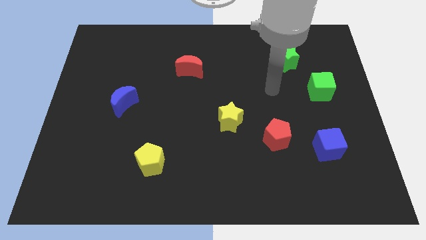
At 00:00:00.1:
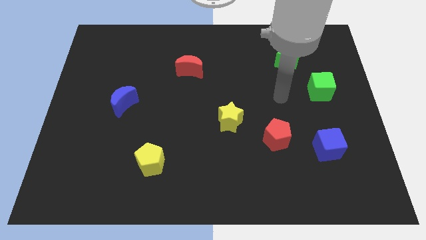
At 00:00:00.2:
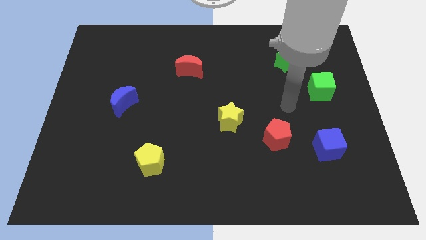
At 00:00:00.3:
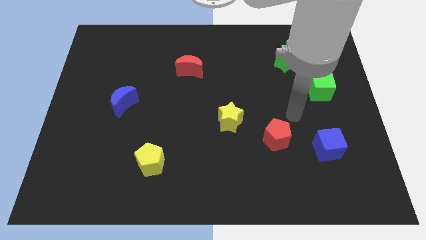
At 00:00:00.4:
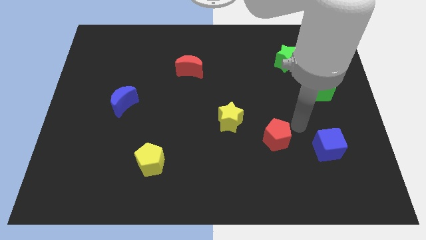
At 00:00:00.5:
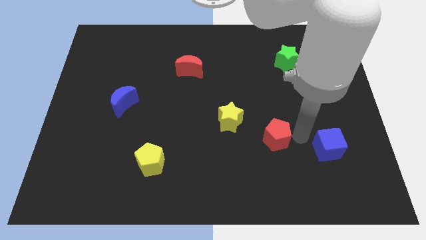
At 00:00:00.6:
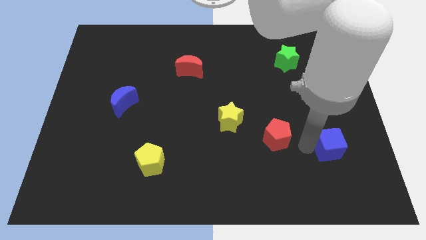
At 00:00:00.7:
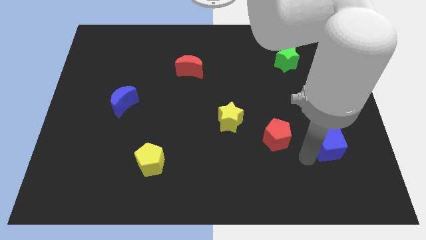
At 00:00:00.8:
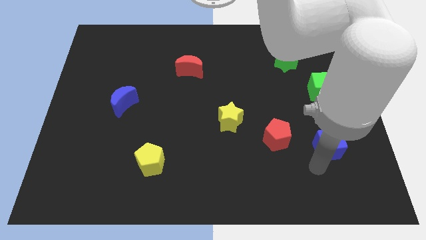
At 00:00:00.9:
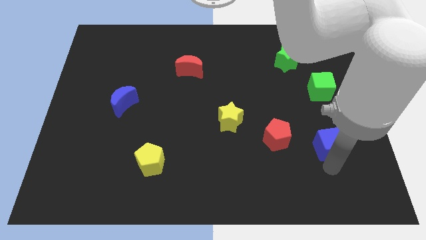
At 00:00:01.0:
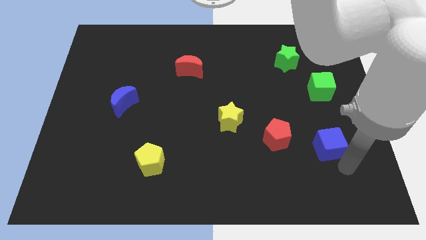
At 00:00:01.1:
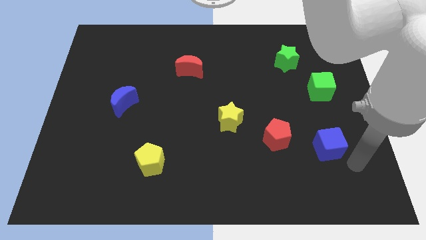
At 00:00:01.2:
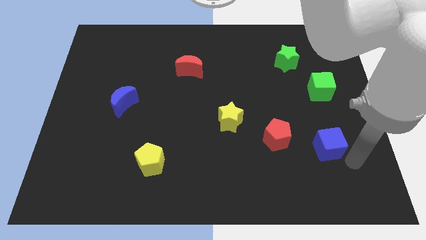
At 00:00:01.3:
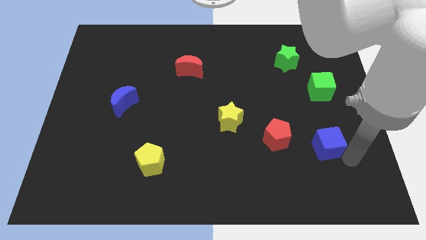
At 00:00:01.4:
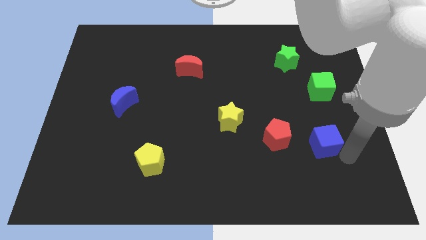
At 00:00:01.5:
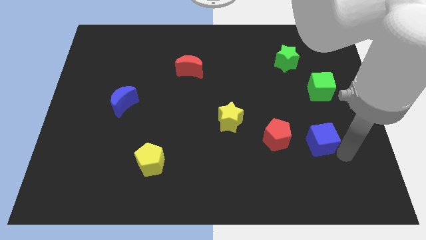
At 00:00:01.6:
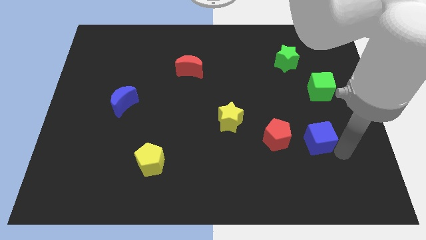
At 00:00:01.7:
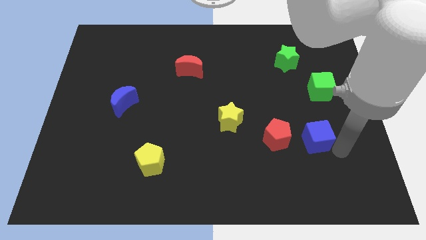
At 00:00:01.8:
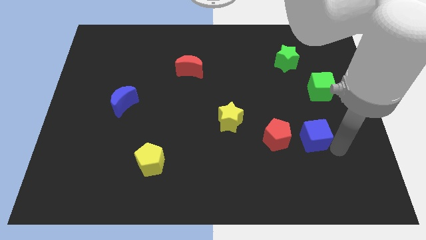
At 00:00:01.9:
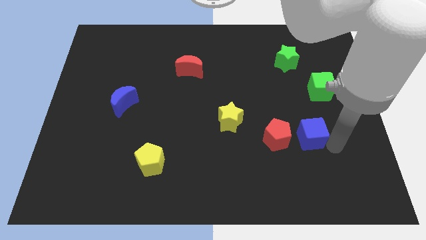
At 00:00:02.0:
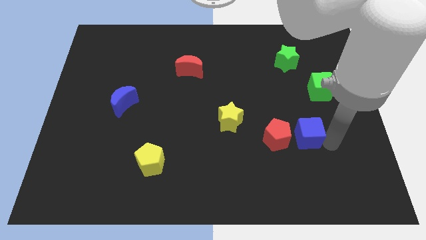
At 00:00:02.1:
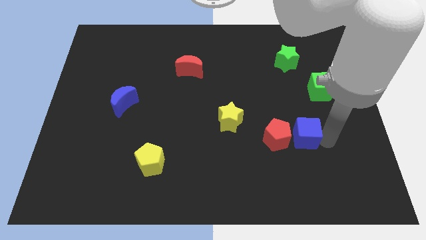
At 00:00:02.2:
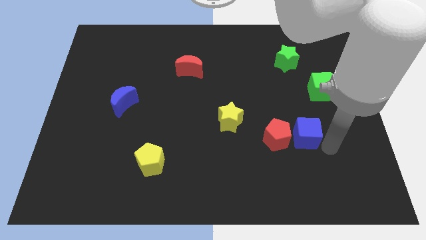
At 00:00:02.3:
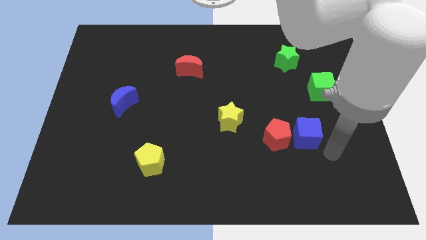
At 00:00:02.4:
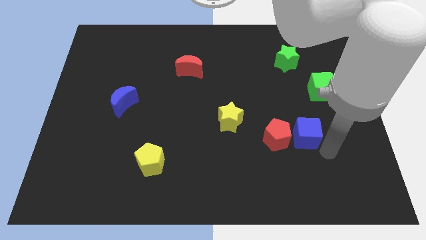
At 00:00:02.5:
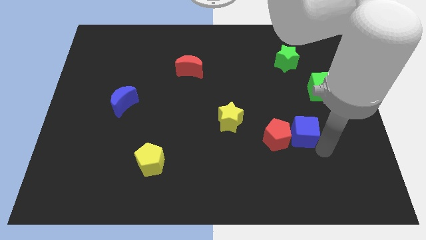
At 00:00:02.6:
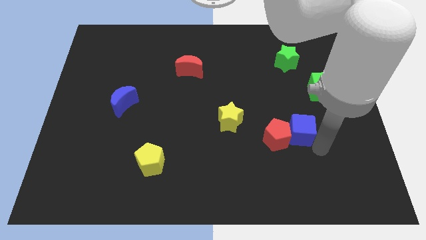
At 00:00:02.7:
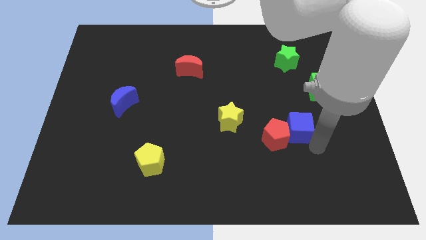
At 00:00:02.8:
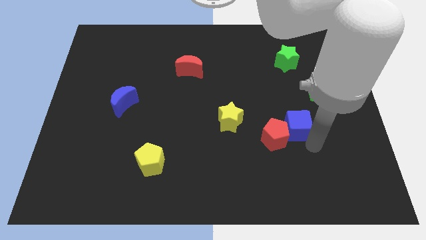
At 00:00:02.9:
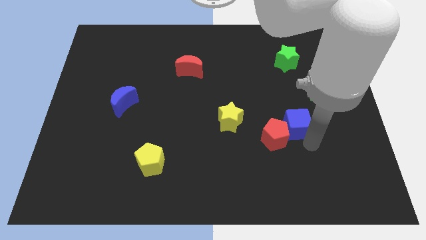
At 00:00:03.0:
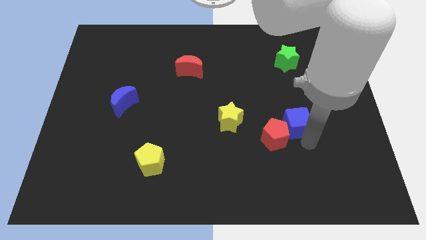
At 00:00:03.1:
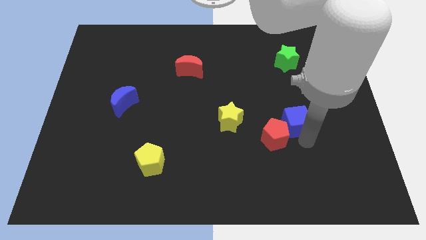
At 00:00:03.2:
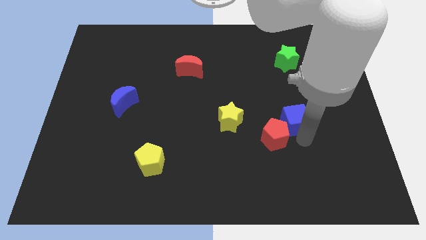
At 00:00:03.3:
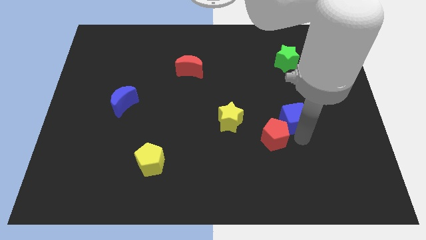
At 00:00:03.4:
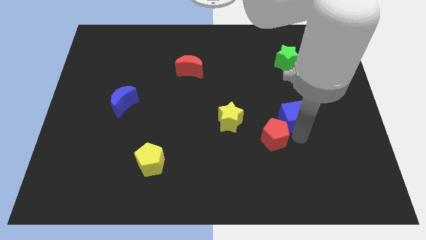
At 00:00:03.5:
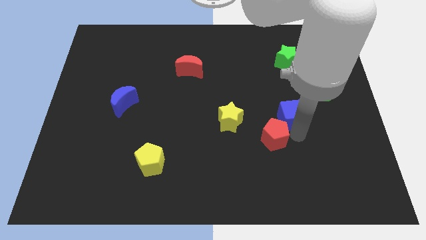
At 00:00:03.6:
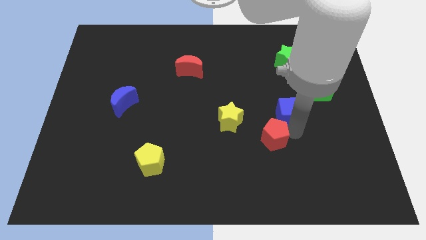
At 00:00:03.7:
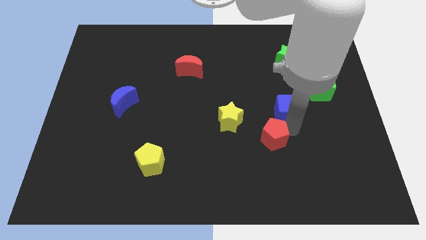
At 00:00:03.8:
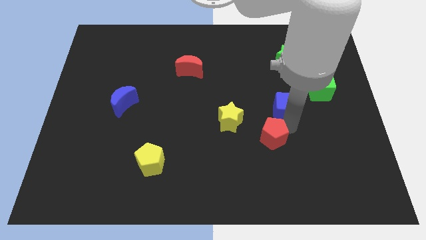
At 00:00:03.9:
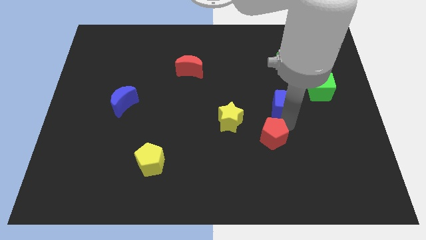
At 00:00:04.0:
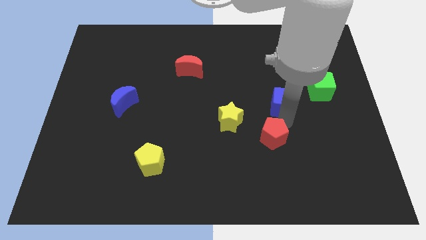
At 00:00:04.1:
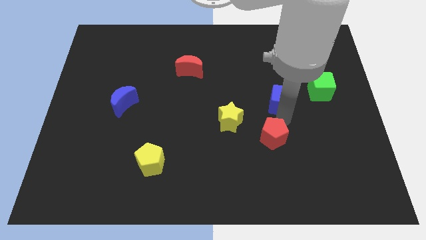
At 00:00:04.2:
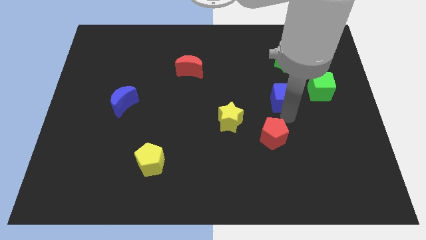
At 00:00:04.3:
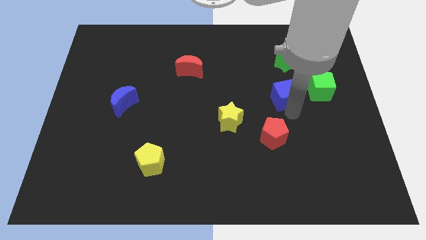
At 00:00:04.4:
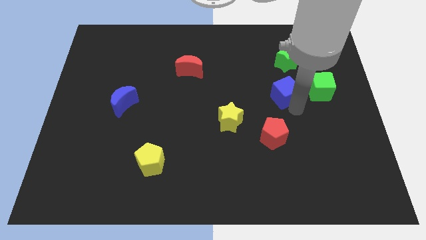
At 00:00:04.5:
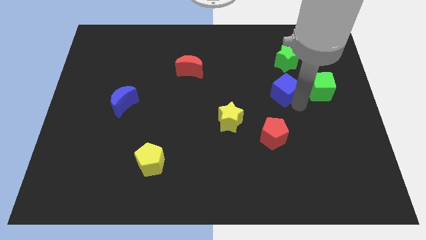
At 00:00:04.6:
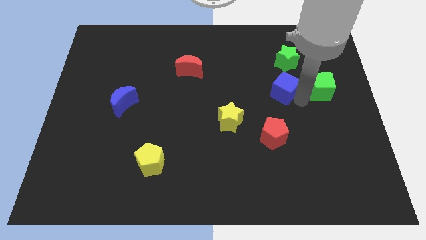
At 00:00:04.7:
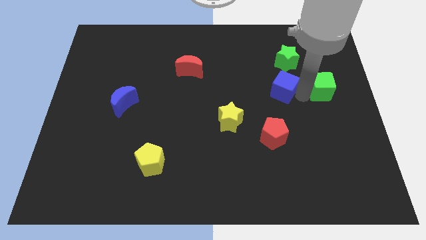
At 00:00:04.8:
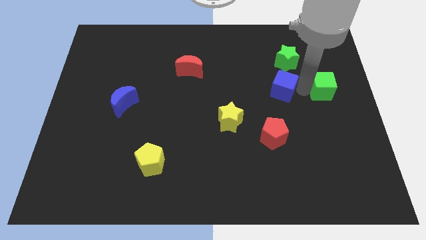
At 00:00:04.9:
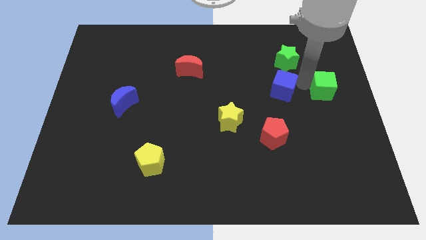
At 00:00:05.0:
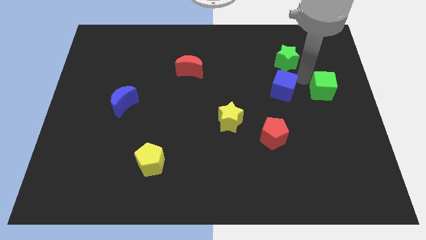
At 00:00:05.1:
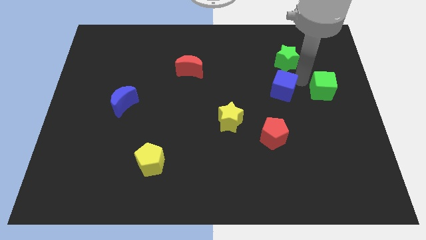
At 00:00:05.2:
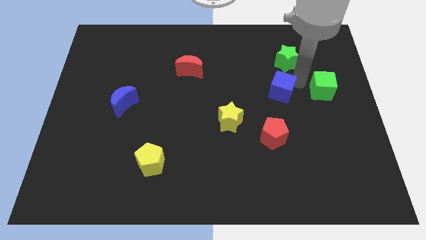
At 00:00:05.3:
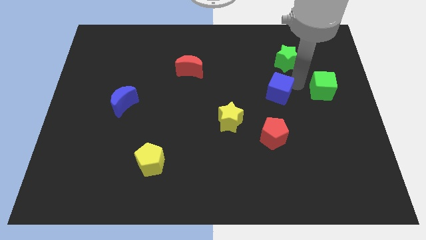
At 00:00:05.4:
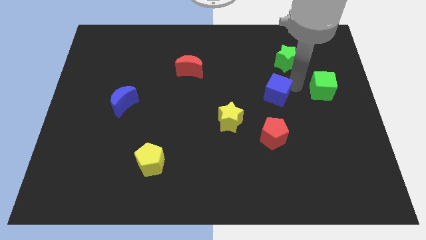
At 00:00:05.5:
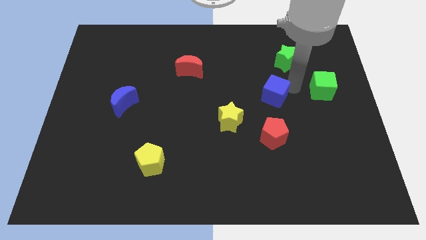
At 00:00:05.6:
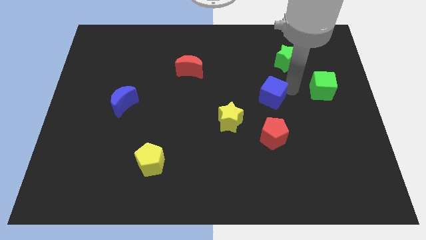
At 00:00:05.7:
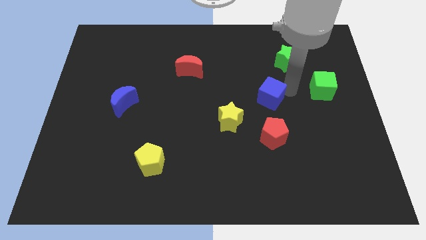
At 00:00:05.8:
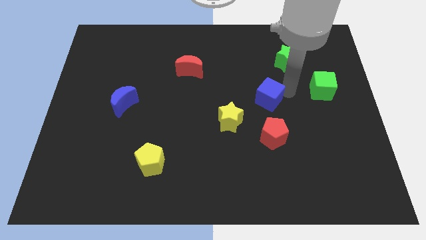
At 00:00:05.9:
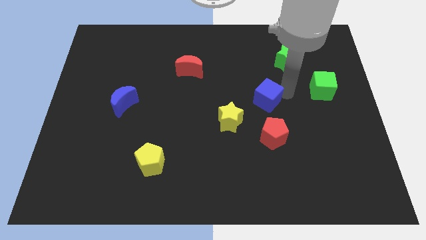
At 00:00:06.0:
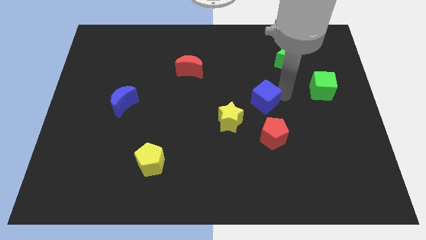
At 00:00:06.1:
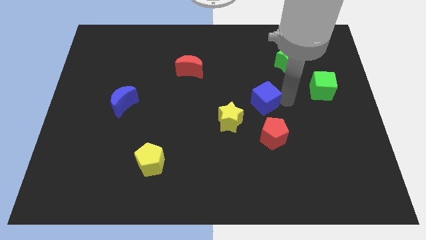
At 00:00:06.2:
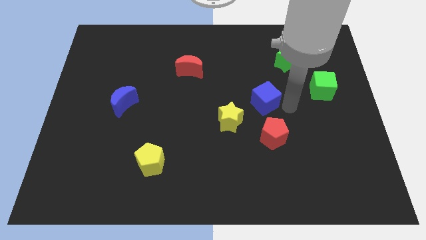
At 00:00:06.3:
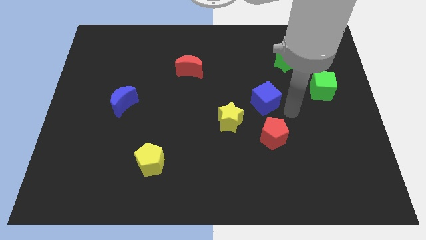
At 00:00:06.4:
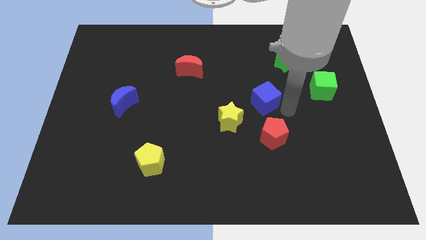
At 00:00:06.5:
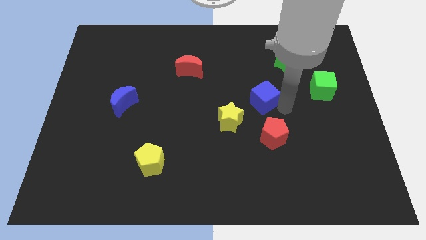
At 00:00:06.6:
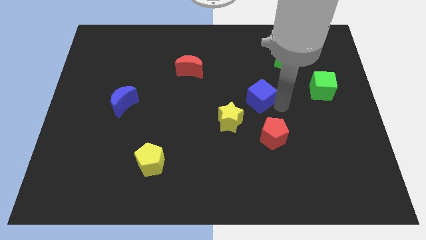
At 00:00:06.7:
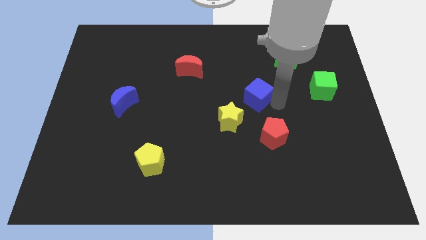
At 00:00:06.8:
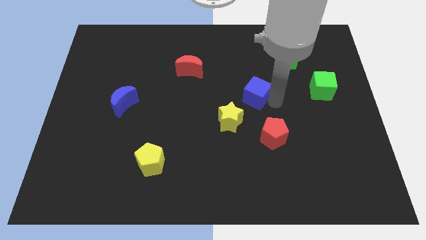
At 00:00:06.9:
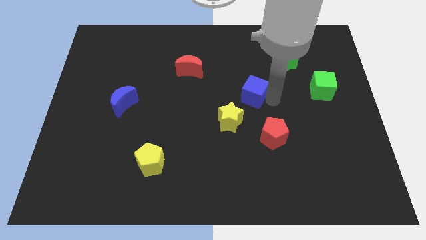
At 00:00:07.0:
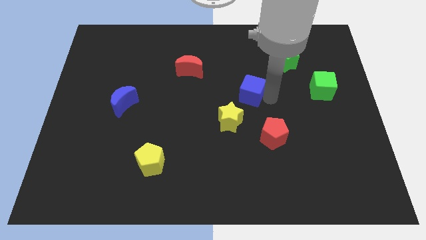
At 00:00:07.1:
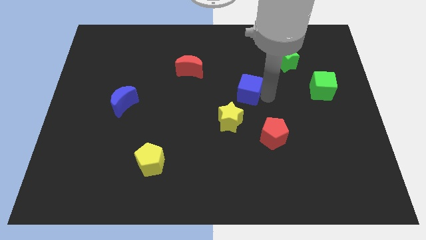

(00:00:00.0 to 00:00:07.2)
move the blue cube to the top of the yellow star
